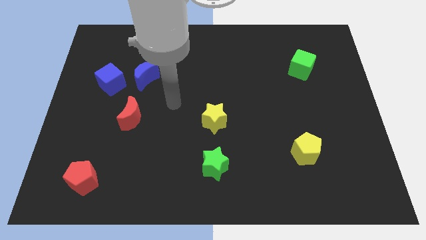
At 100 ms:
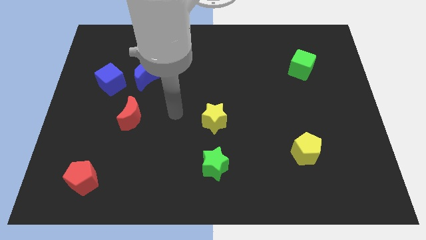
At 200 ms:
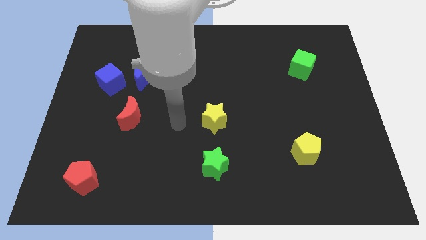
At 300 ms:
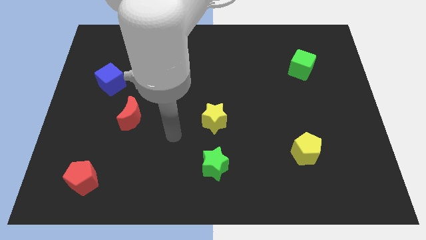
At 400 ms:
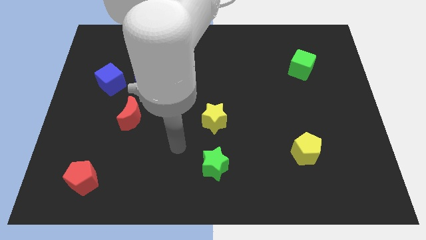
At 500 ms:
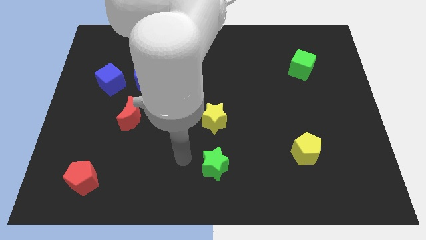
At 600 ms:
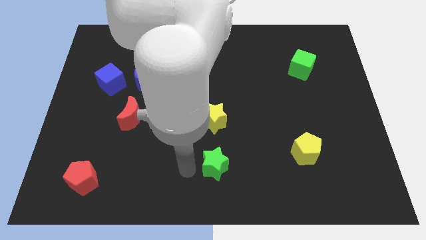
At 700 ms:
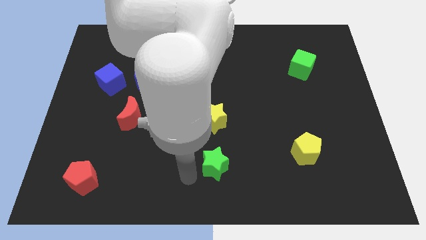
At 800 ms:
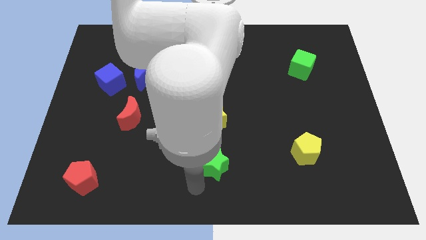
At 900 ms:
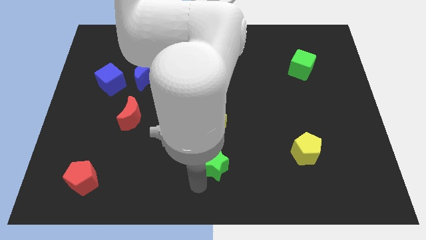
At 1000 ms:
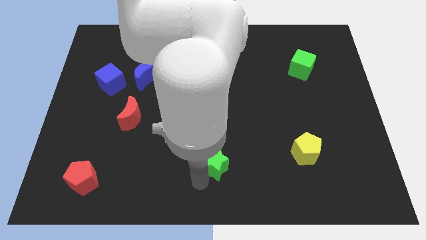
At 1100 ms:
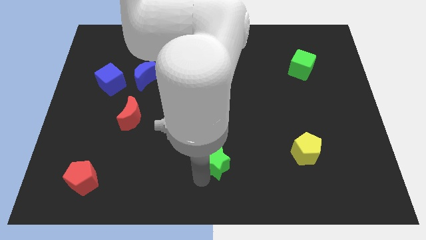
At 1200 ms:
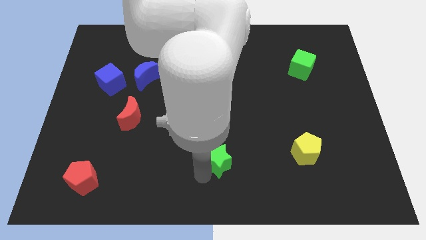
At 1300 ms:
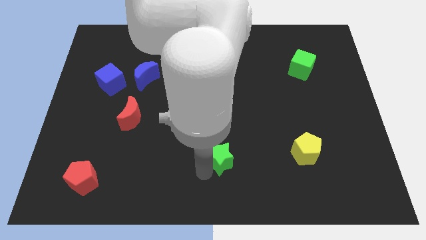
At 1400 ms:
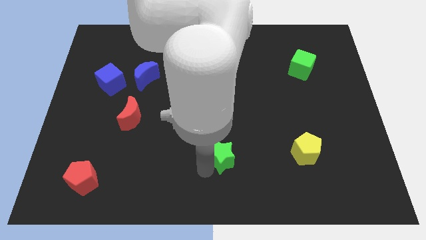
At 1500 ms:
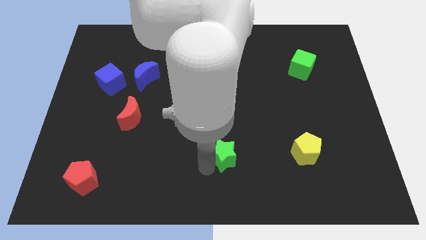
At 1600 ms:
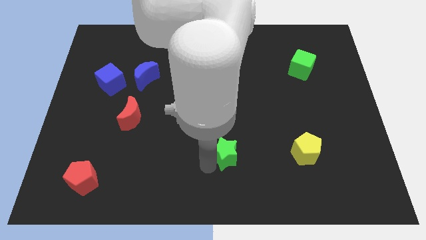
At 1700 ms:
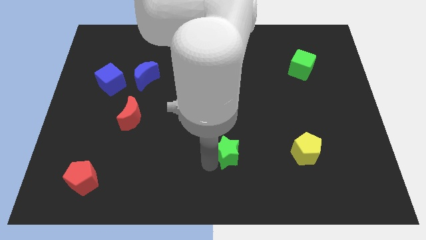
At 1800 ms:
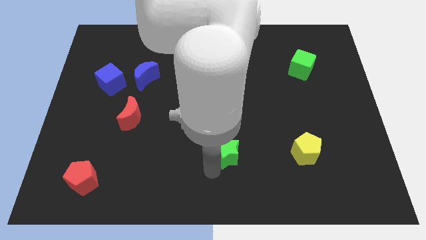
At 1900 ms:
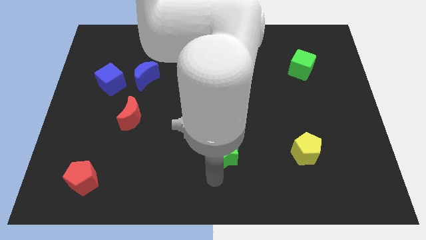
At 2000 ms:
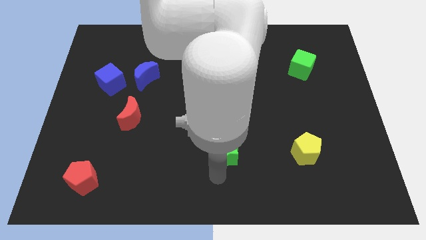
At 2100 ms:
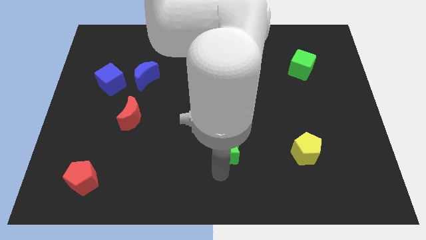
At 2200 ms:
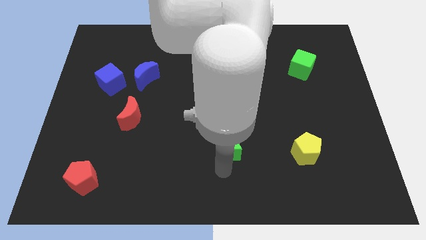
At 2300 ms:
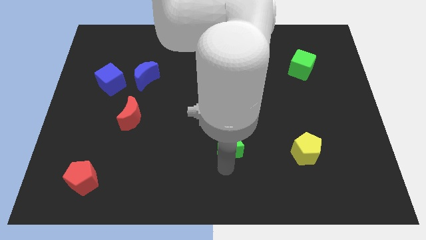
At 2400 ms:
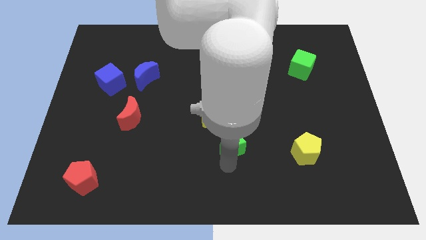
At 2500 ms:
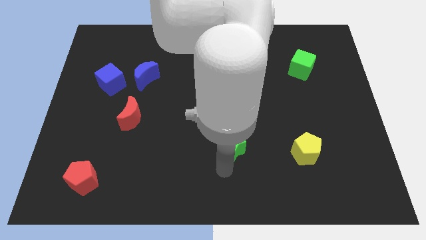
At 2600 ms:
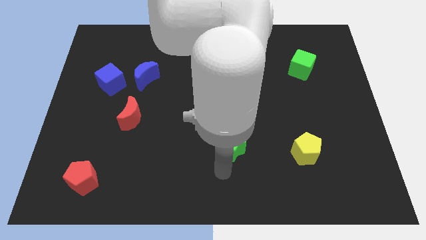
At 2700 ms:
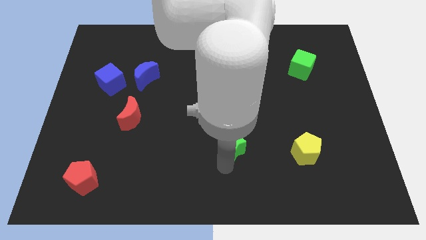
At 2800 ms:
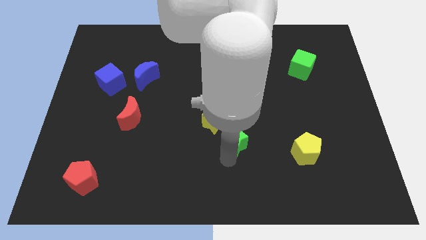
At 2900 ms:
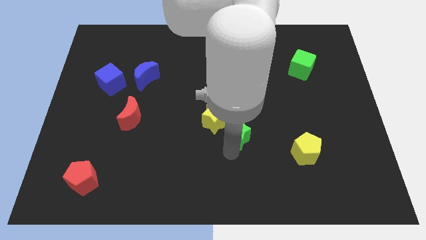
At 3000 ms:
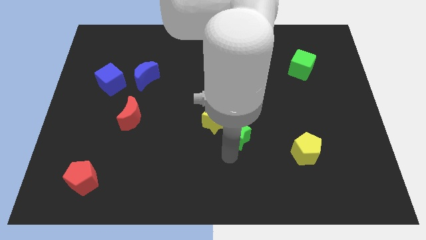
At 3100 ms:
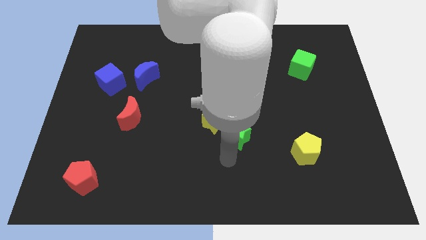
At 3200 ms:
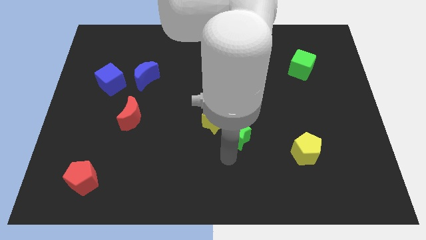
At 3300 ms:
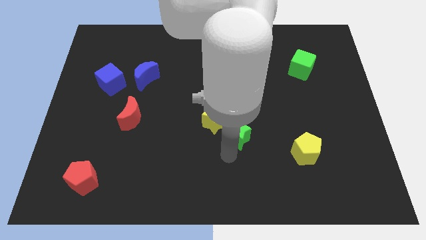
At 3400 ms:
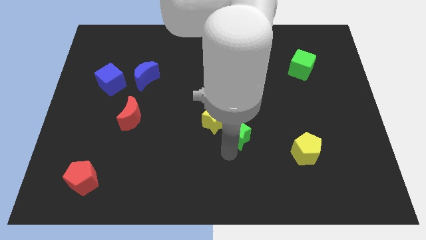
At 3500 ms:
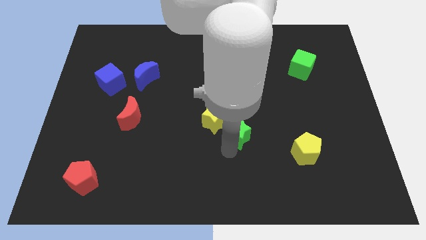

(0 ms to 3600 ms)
slide the green star a bit up

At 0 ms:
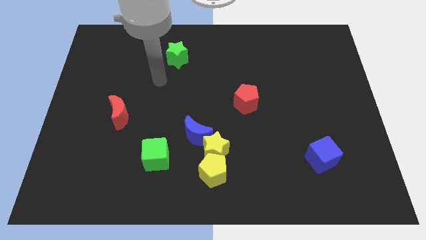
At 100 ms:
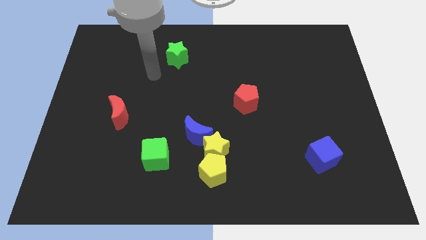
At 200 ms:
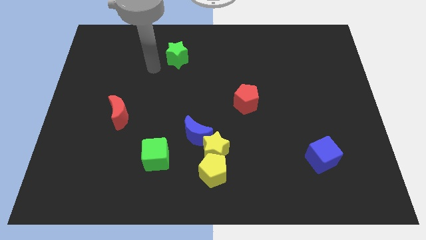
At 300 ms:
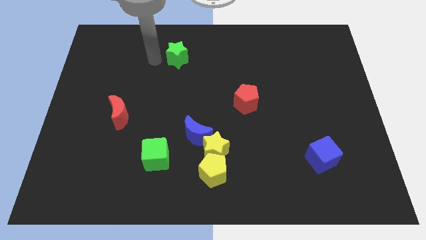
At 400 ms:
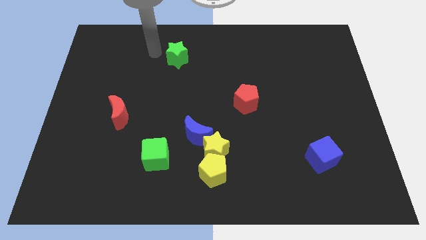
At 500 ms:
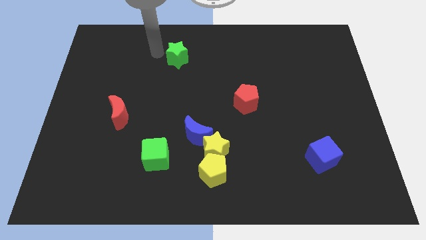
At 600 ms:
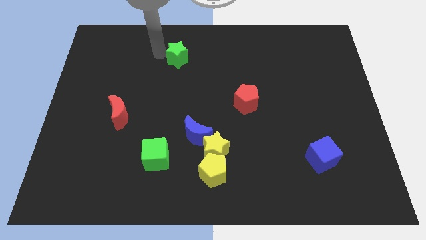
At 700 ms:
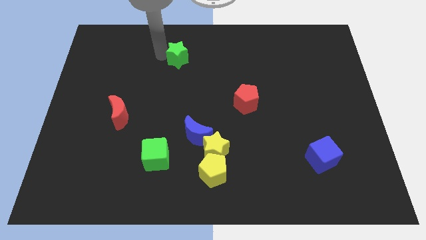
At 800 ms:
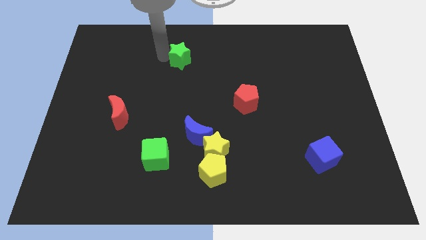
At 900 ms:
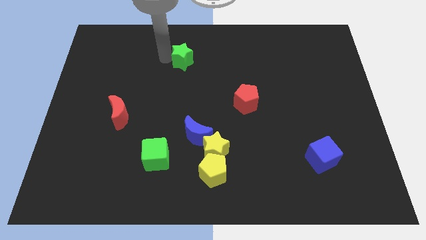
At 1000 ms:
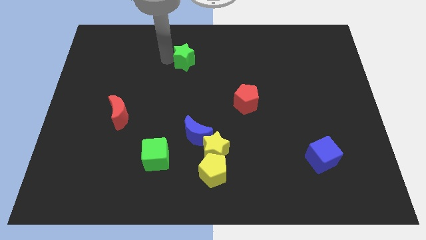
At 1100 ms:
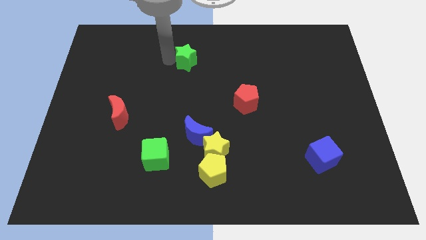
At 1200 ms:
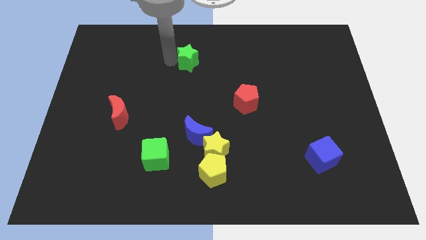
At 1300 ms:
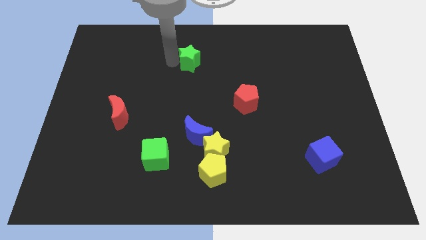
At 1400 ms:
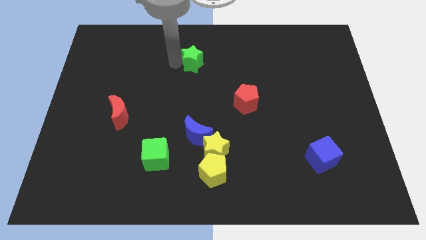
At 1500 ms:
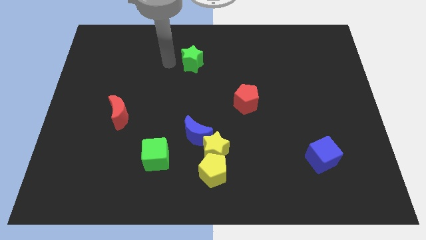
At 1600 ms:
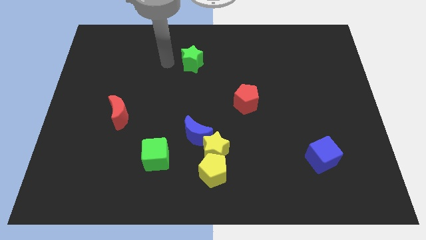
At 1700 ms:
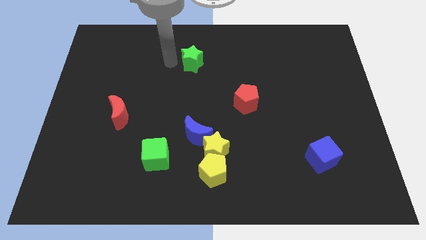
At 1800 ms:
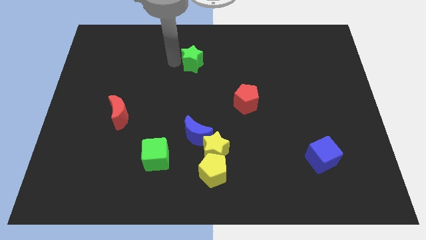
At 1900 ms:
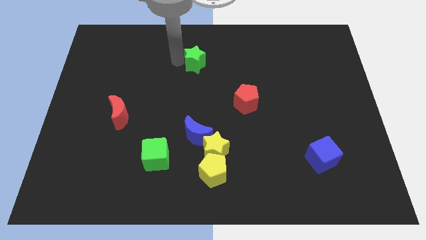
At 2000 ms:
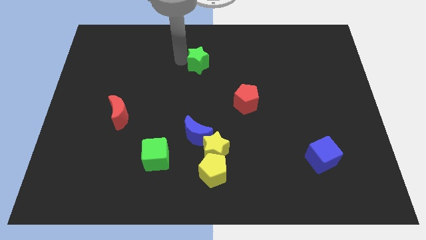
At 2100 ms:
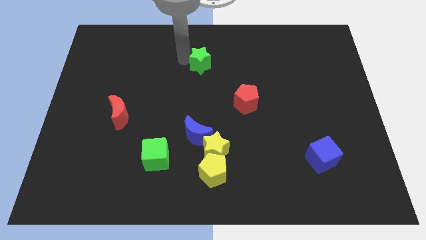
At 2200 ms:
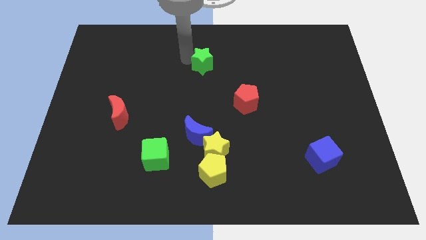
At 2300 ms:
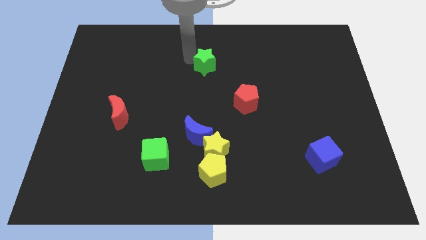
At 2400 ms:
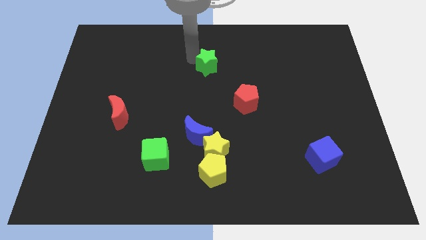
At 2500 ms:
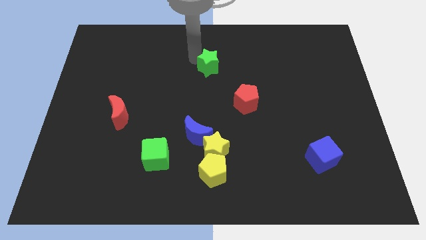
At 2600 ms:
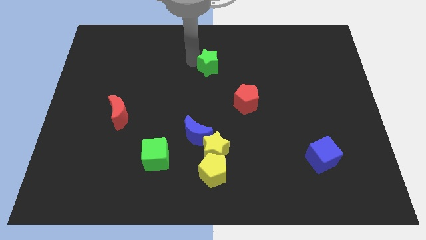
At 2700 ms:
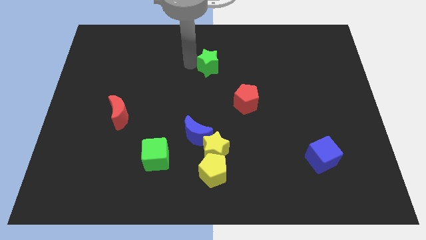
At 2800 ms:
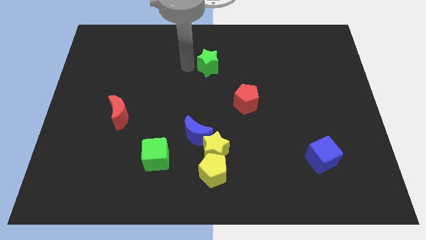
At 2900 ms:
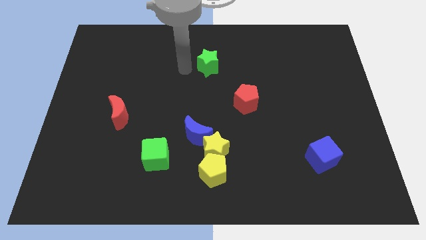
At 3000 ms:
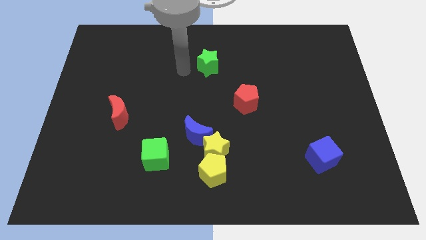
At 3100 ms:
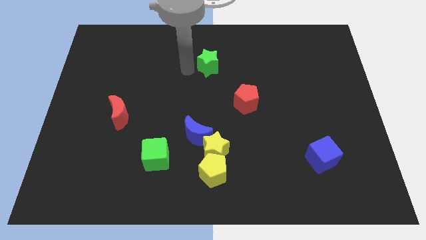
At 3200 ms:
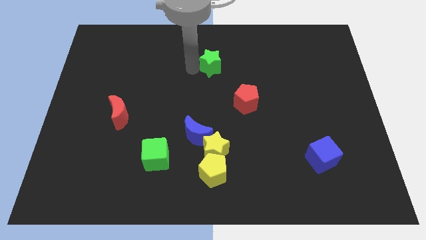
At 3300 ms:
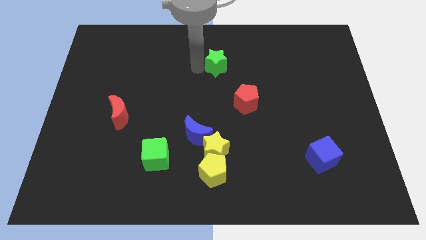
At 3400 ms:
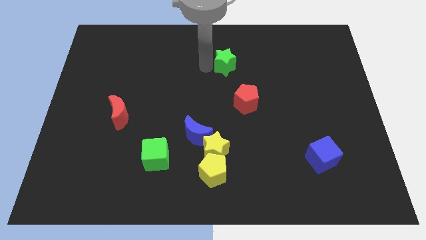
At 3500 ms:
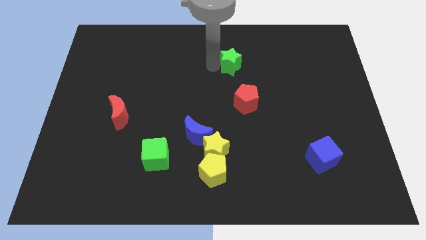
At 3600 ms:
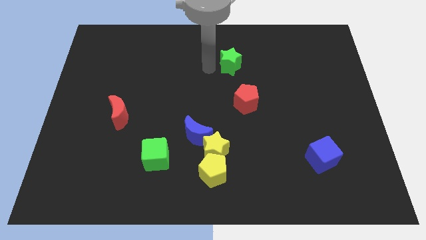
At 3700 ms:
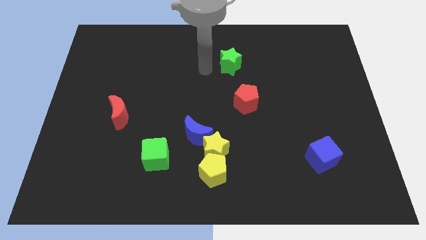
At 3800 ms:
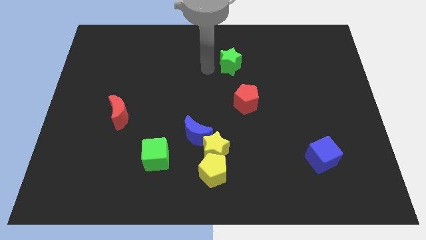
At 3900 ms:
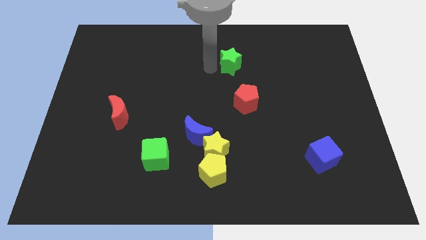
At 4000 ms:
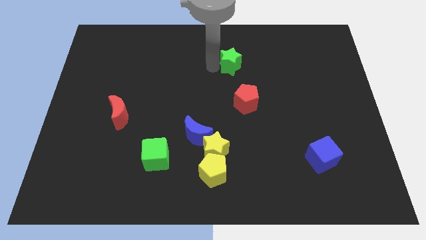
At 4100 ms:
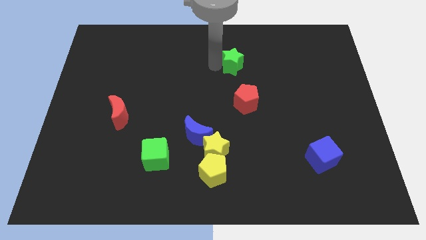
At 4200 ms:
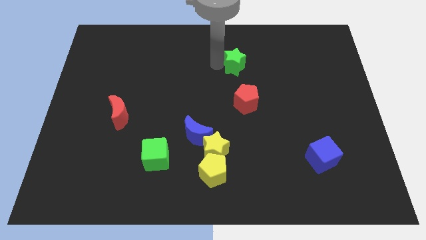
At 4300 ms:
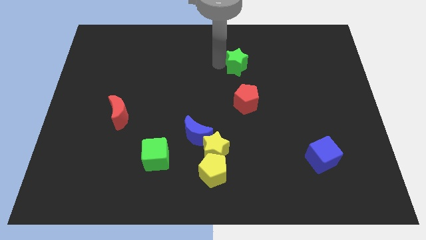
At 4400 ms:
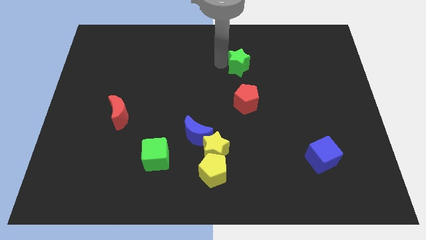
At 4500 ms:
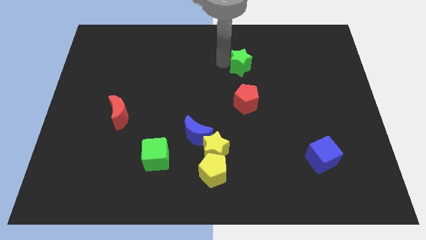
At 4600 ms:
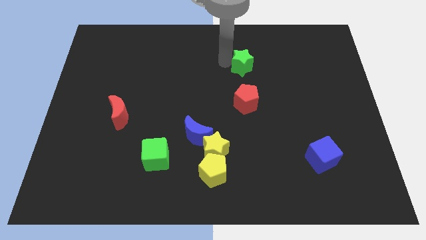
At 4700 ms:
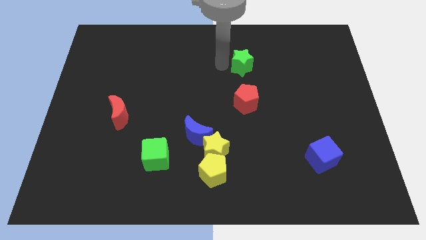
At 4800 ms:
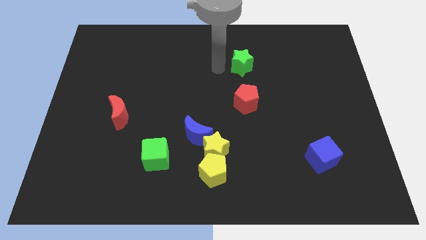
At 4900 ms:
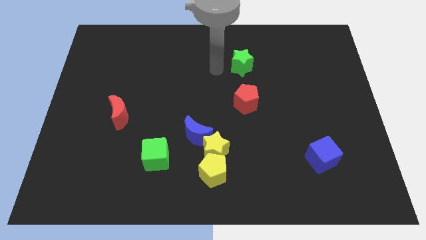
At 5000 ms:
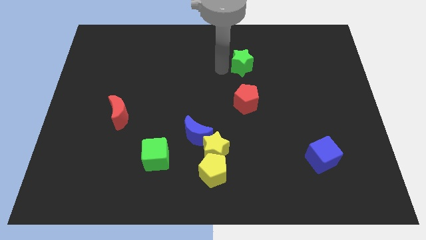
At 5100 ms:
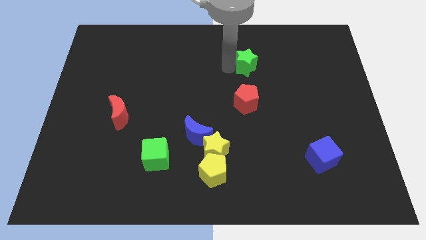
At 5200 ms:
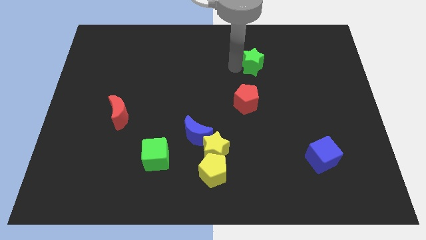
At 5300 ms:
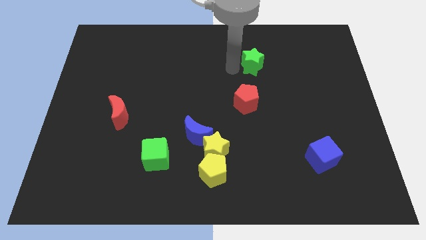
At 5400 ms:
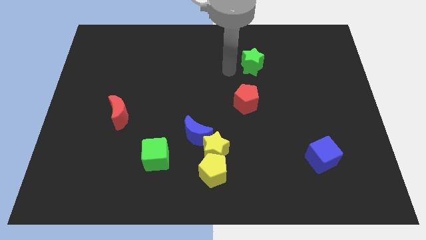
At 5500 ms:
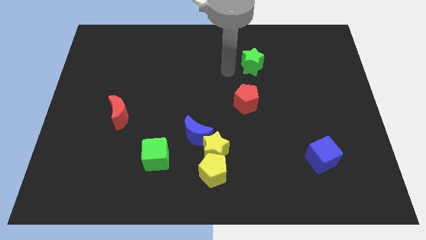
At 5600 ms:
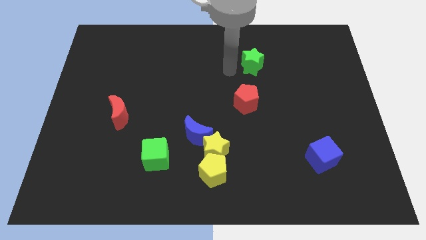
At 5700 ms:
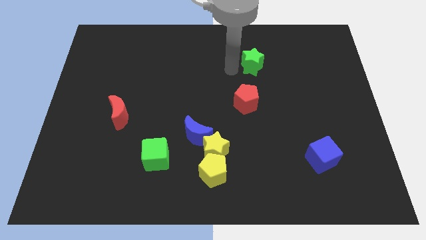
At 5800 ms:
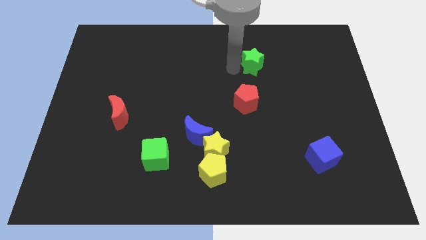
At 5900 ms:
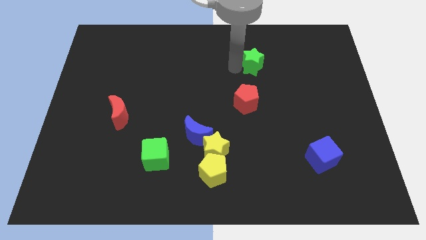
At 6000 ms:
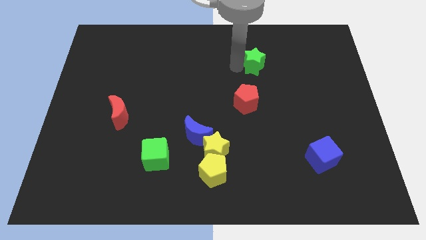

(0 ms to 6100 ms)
push the green star to the right
